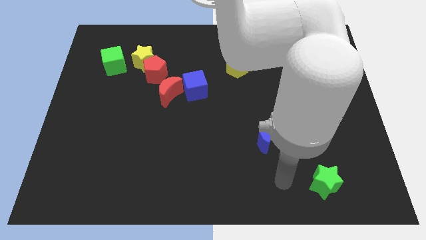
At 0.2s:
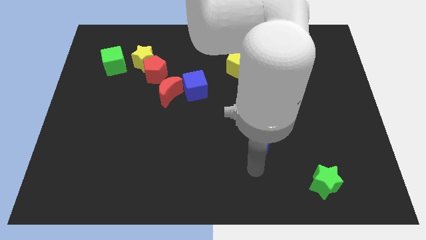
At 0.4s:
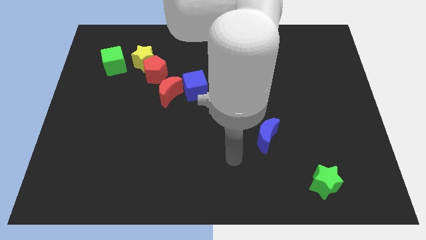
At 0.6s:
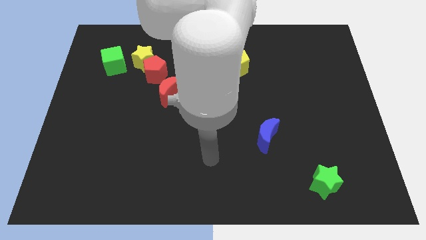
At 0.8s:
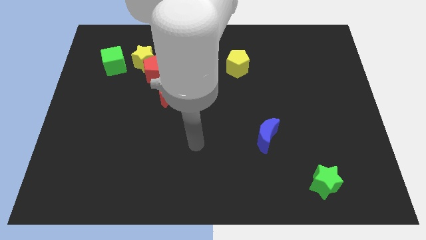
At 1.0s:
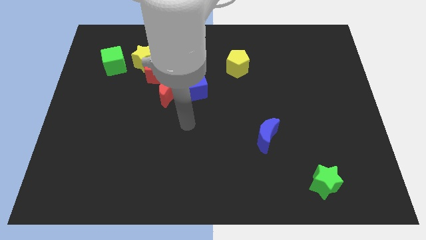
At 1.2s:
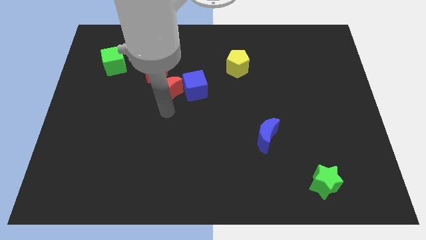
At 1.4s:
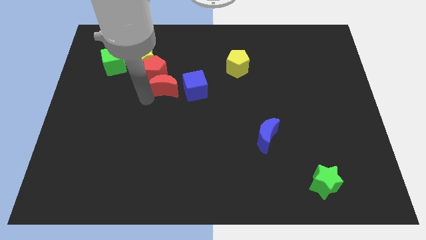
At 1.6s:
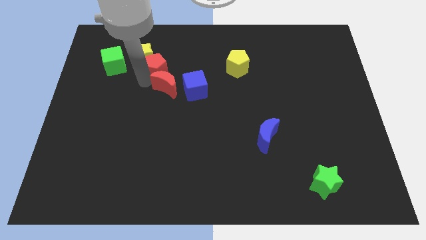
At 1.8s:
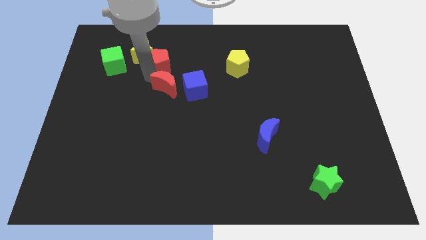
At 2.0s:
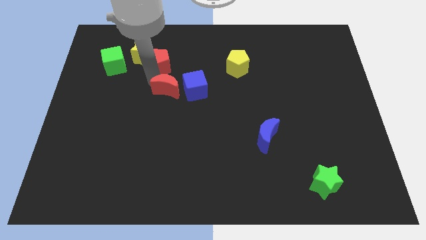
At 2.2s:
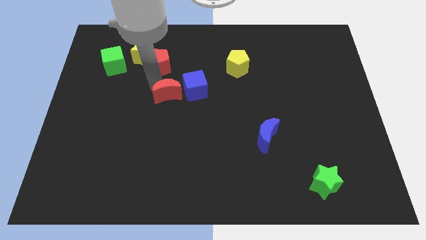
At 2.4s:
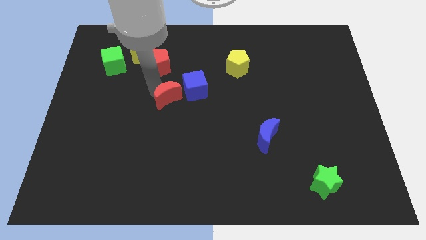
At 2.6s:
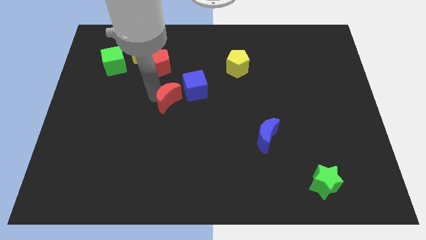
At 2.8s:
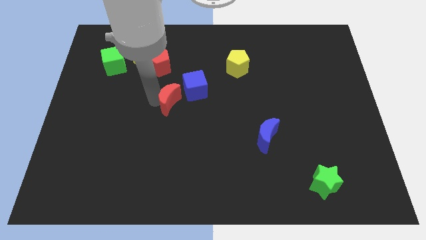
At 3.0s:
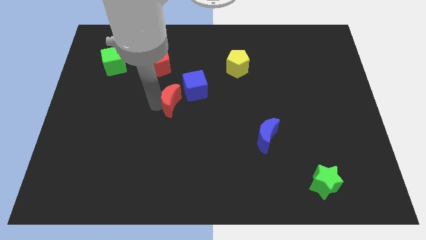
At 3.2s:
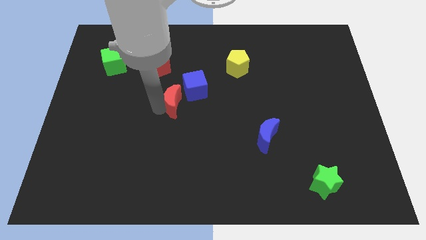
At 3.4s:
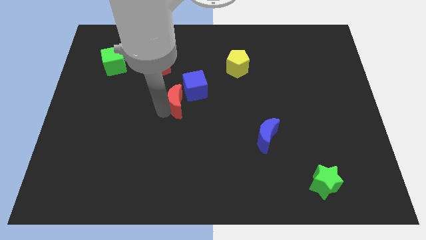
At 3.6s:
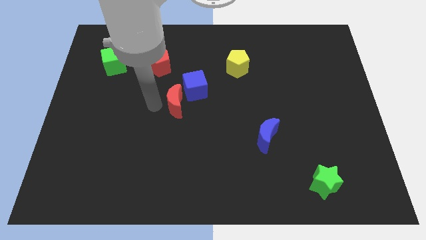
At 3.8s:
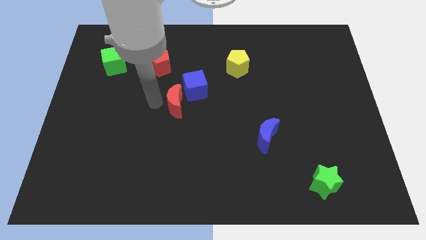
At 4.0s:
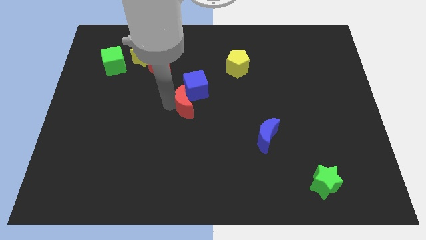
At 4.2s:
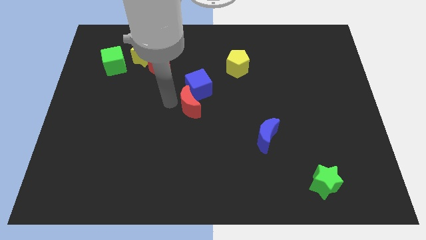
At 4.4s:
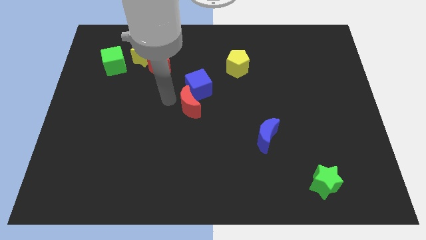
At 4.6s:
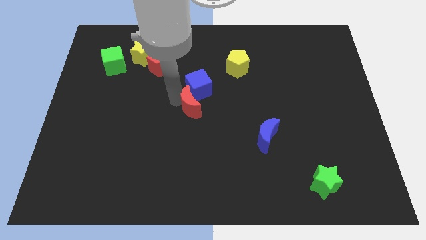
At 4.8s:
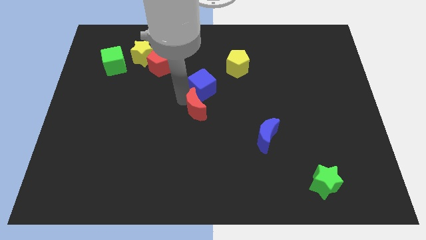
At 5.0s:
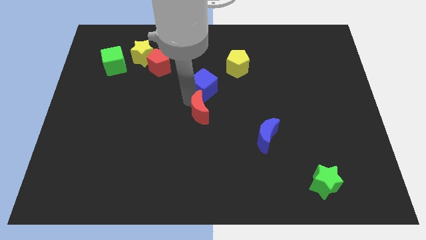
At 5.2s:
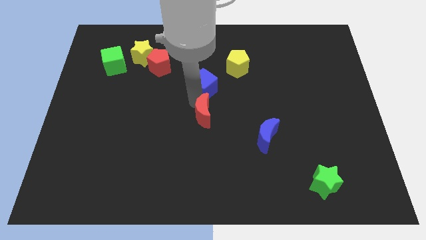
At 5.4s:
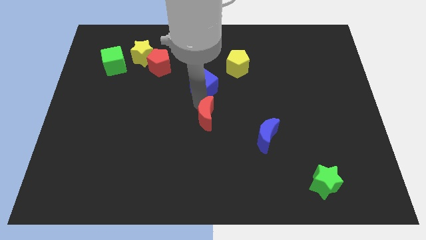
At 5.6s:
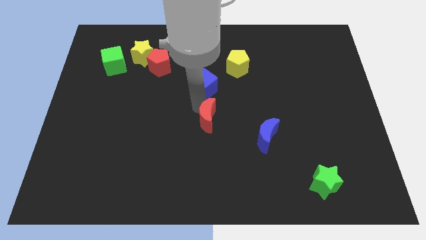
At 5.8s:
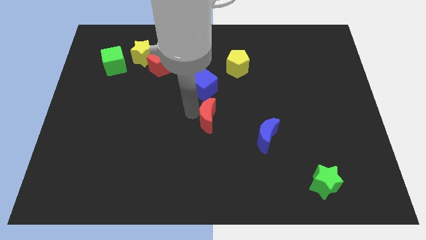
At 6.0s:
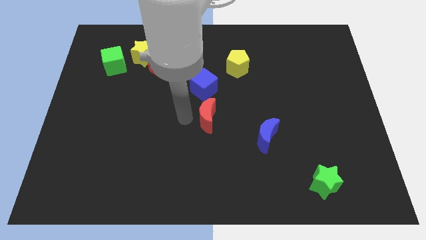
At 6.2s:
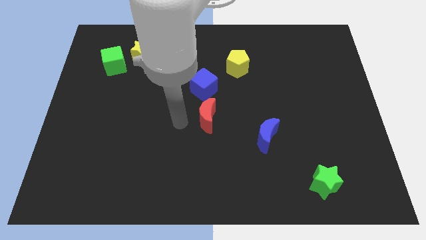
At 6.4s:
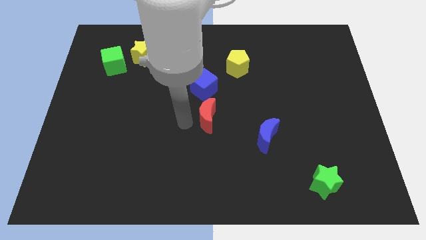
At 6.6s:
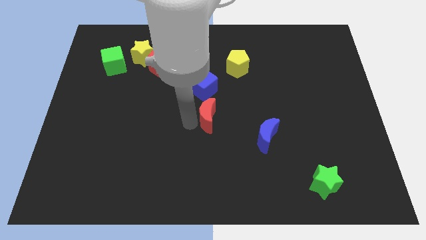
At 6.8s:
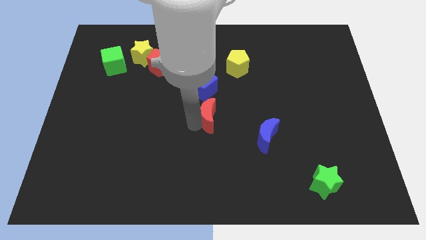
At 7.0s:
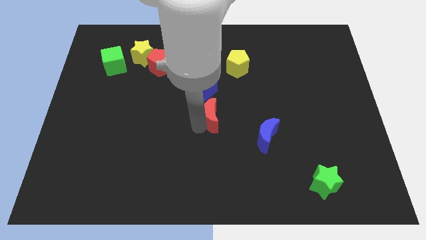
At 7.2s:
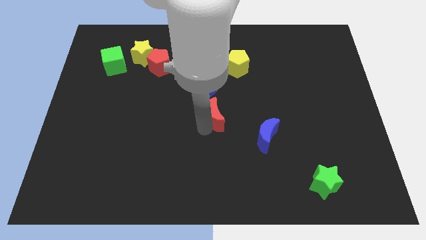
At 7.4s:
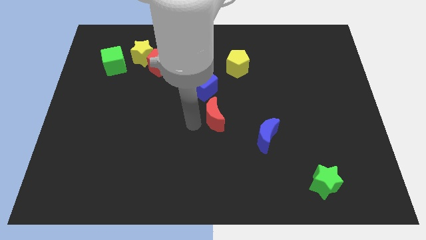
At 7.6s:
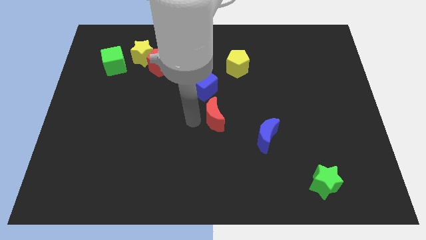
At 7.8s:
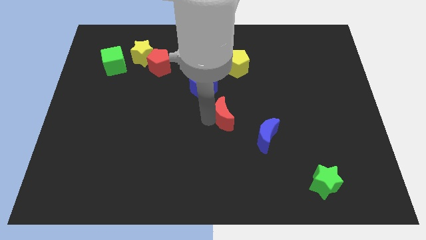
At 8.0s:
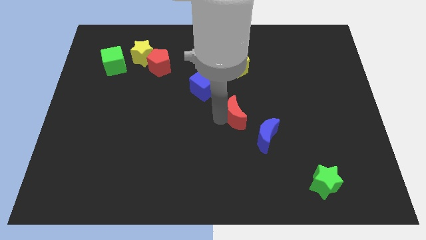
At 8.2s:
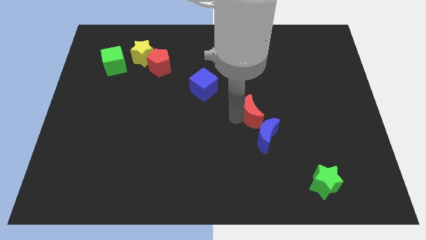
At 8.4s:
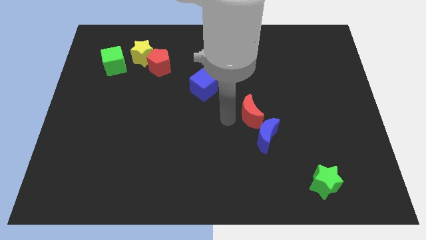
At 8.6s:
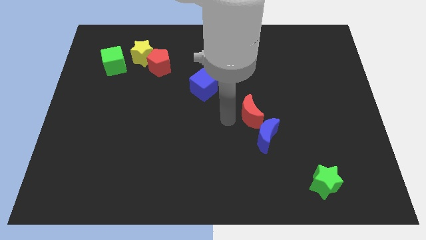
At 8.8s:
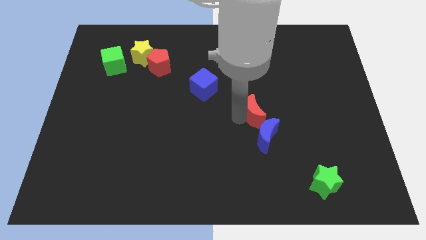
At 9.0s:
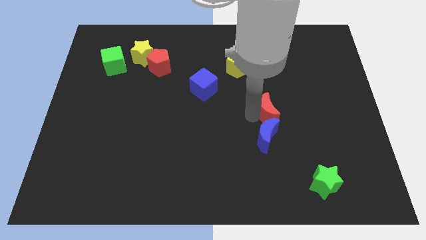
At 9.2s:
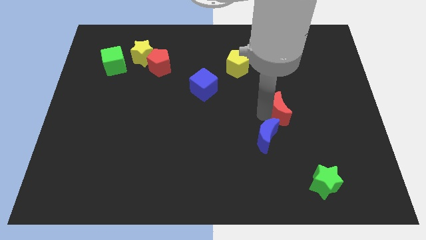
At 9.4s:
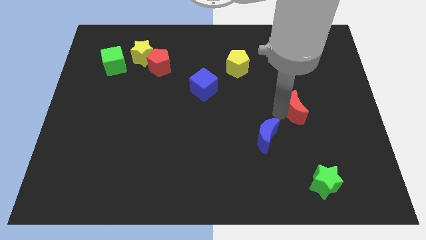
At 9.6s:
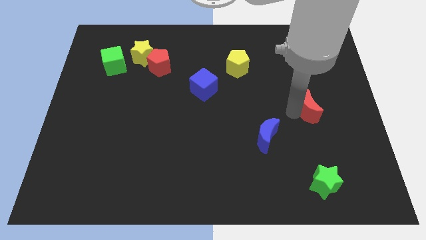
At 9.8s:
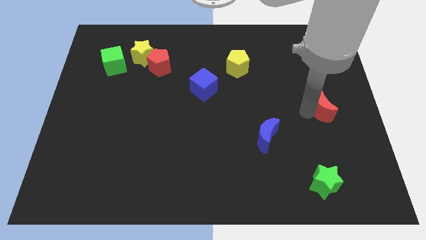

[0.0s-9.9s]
push the red moon to the right side of the board

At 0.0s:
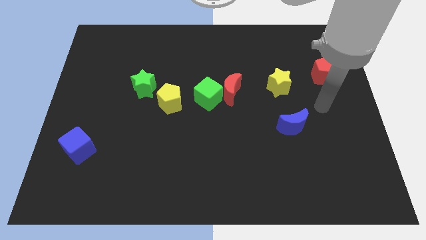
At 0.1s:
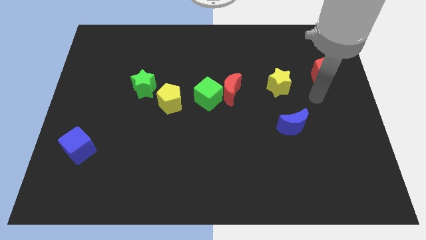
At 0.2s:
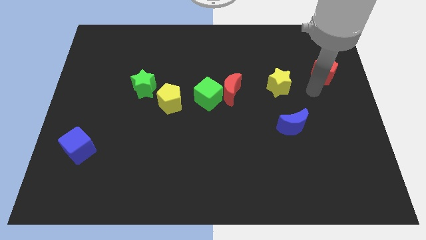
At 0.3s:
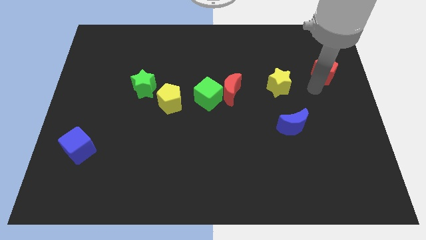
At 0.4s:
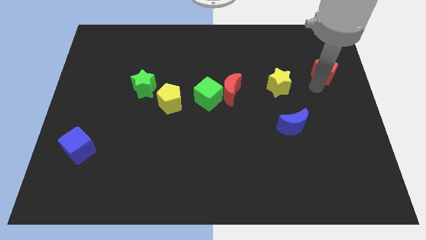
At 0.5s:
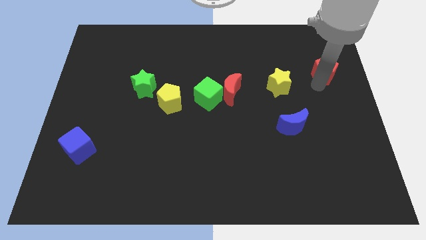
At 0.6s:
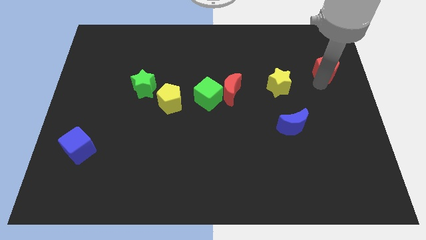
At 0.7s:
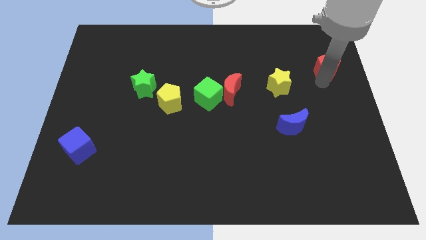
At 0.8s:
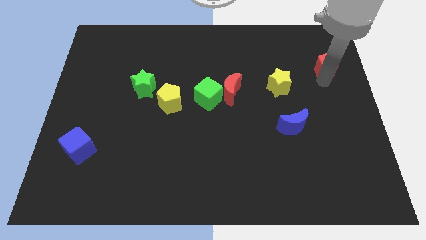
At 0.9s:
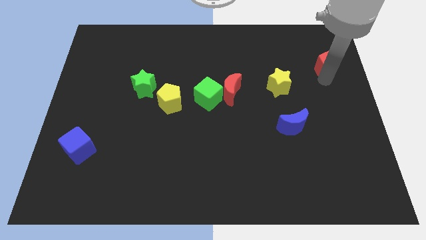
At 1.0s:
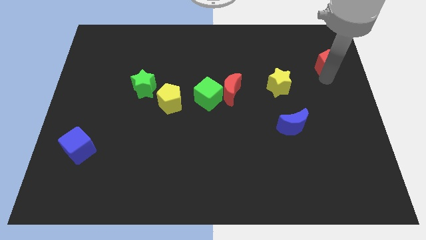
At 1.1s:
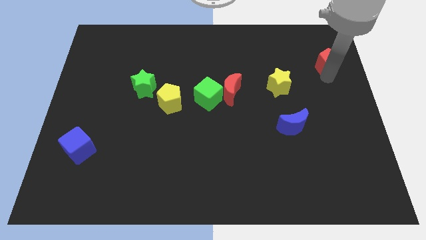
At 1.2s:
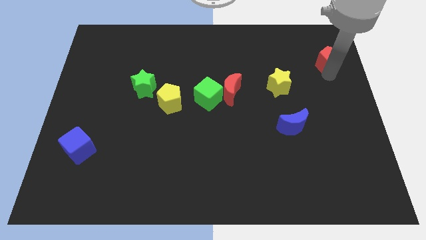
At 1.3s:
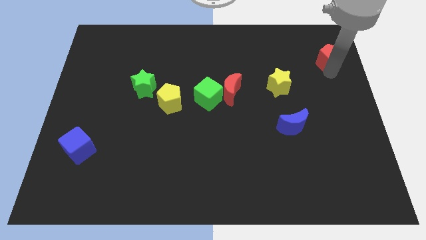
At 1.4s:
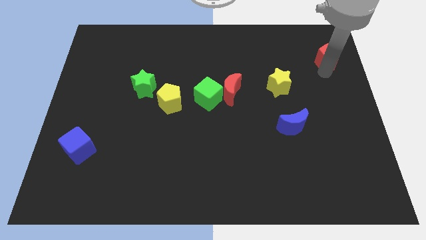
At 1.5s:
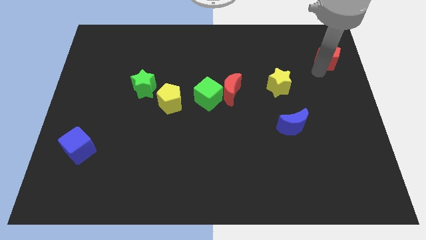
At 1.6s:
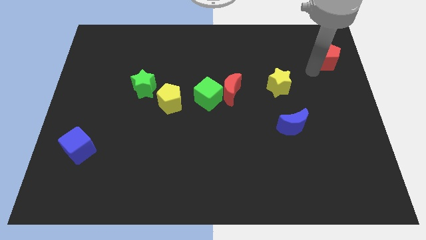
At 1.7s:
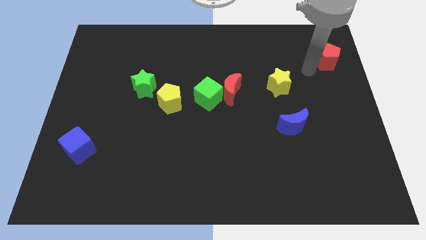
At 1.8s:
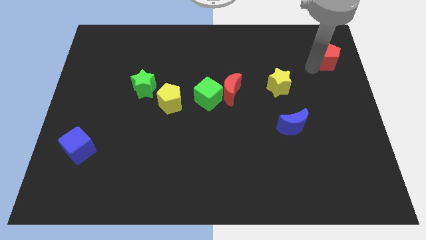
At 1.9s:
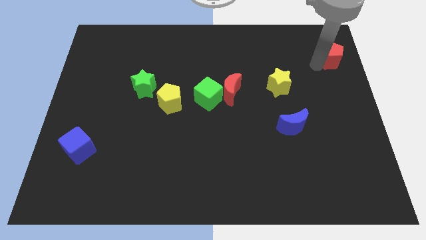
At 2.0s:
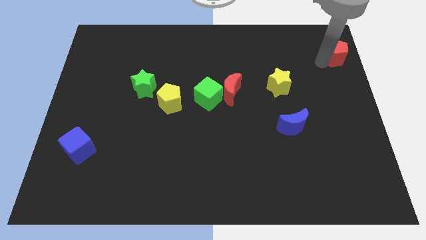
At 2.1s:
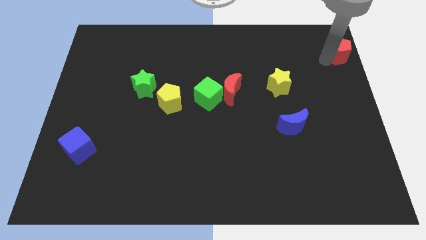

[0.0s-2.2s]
put the red pentagon to the top right of the board
